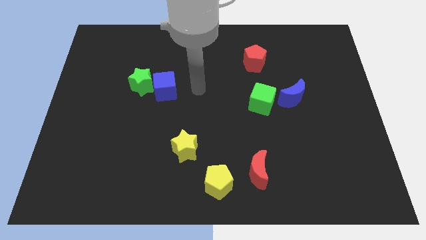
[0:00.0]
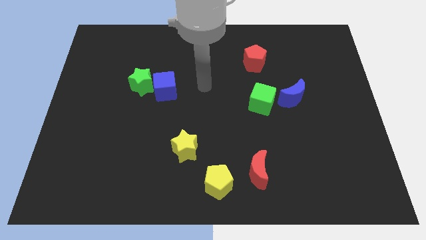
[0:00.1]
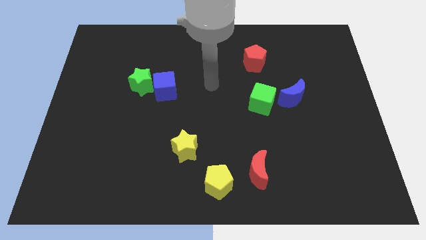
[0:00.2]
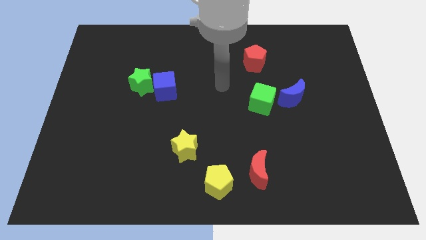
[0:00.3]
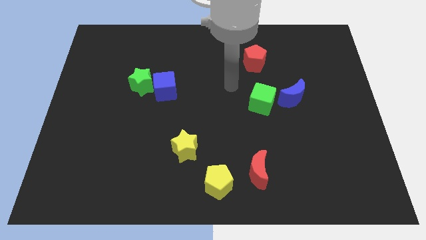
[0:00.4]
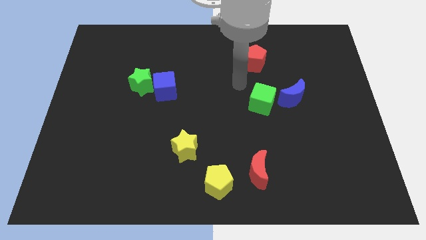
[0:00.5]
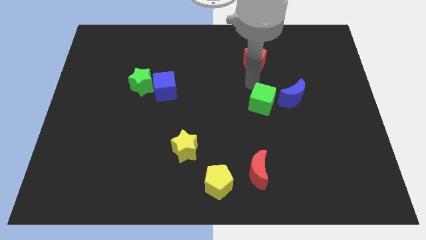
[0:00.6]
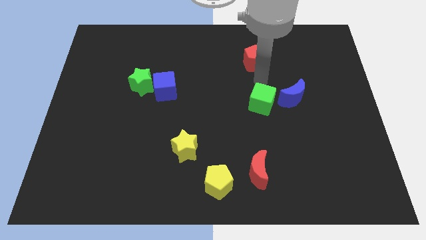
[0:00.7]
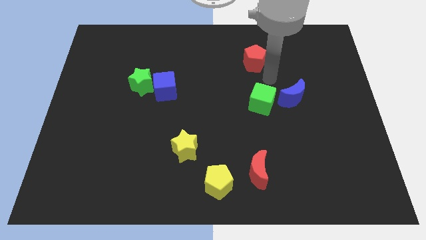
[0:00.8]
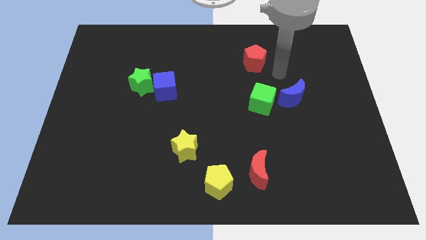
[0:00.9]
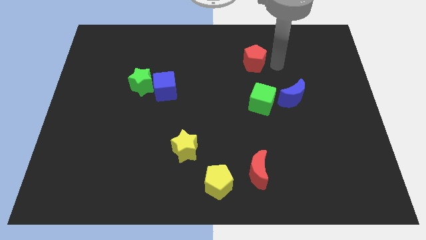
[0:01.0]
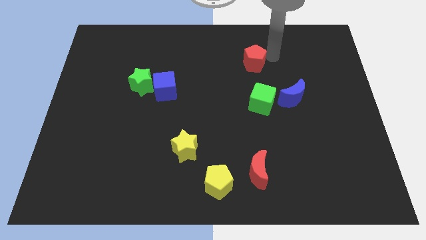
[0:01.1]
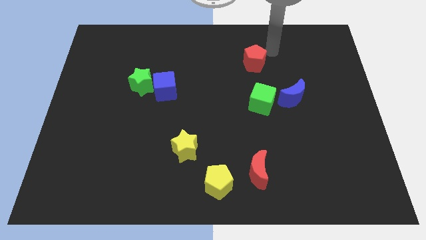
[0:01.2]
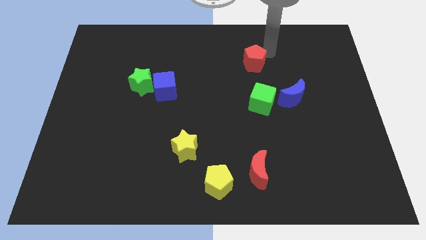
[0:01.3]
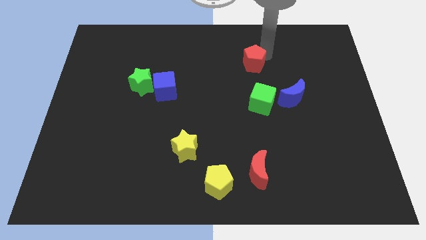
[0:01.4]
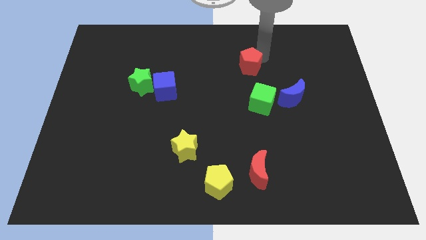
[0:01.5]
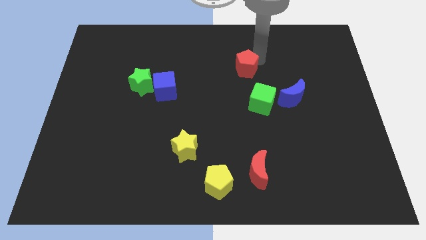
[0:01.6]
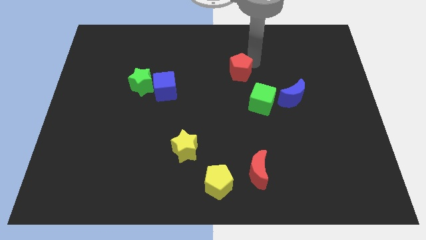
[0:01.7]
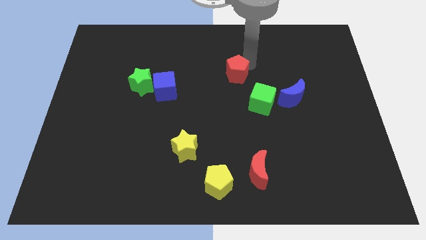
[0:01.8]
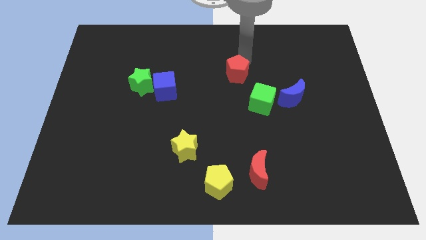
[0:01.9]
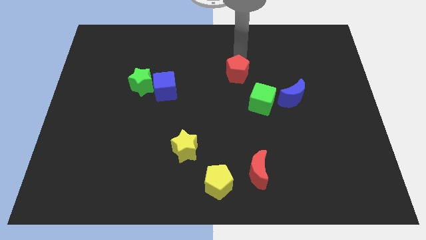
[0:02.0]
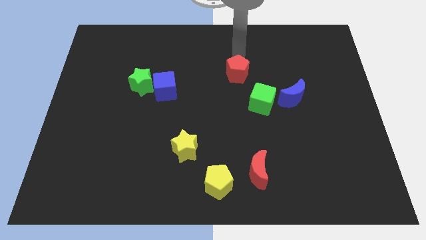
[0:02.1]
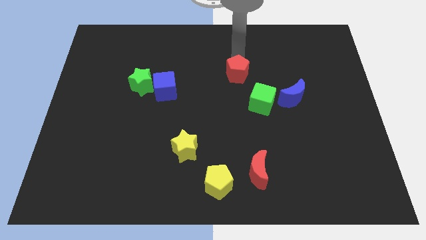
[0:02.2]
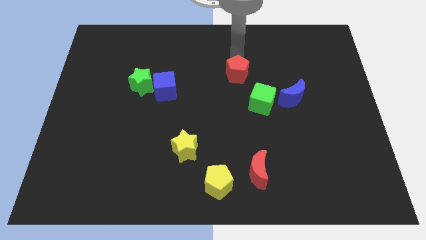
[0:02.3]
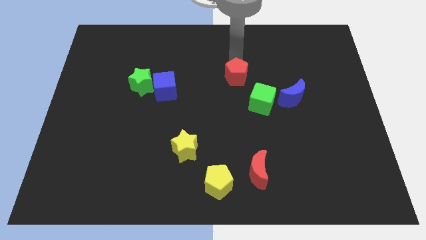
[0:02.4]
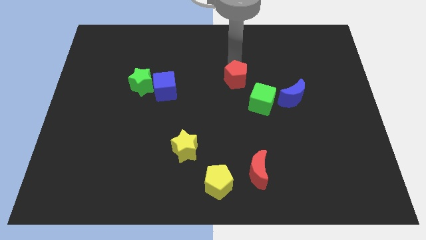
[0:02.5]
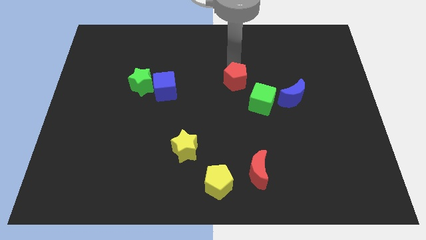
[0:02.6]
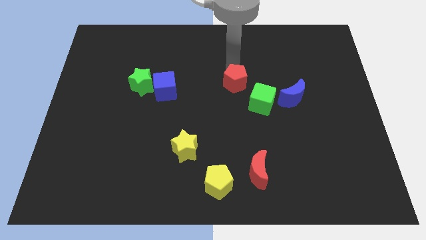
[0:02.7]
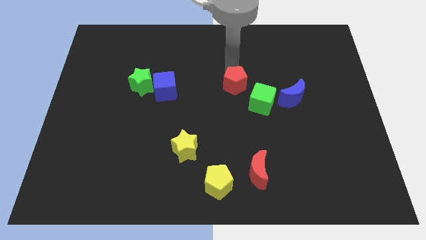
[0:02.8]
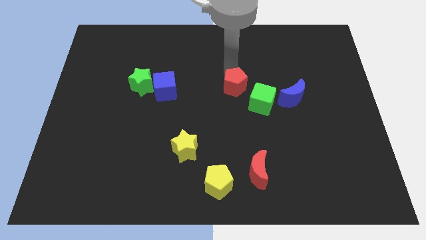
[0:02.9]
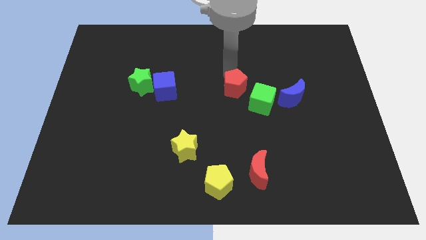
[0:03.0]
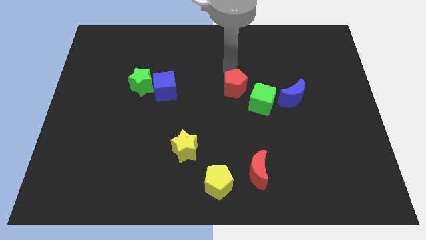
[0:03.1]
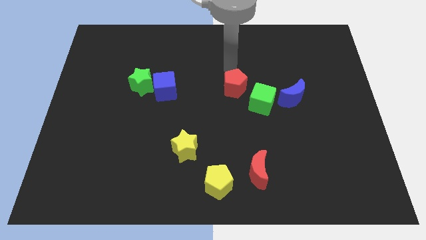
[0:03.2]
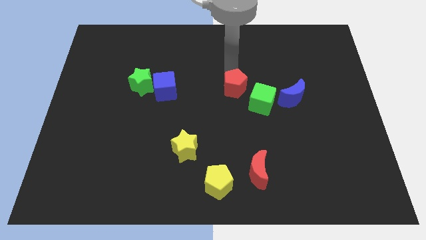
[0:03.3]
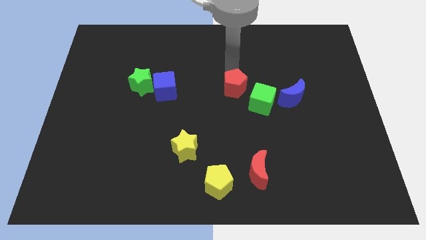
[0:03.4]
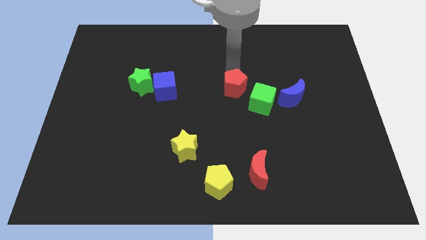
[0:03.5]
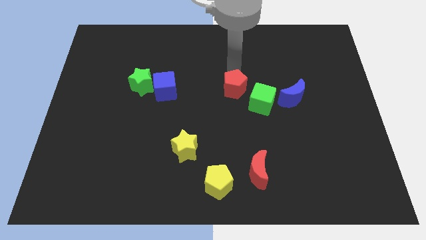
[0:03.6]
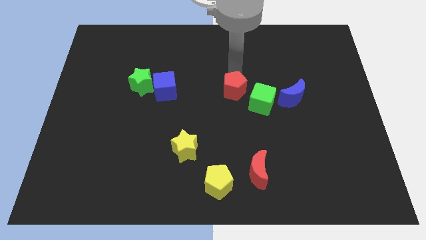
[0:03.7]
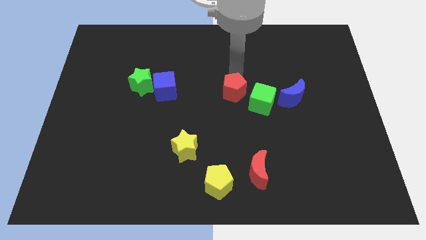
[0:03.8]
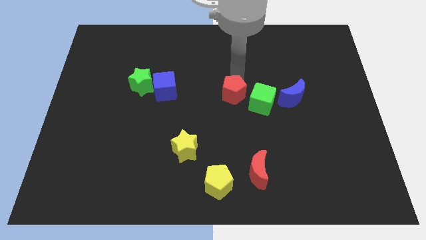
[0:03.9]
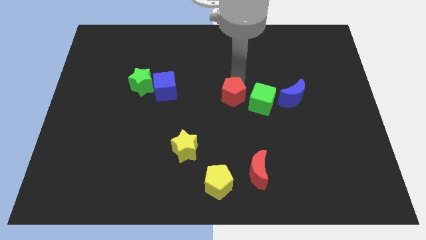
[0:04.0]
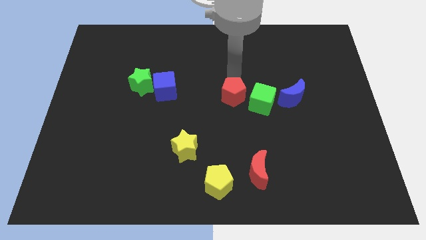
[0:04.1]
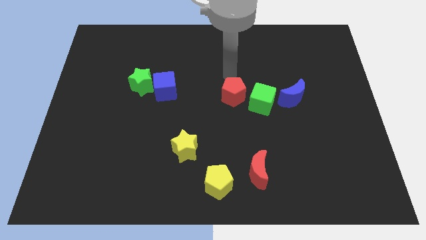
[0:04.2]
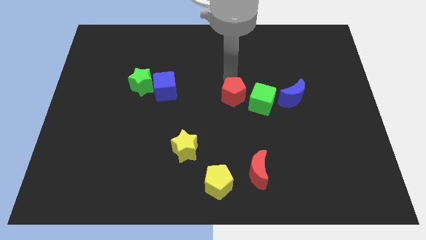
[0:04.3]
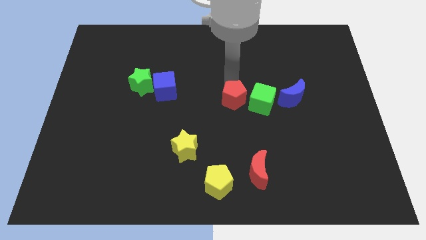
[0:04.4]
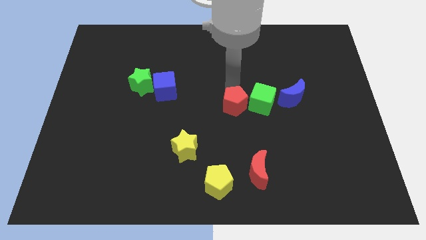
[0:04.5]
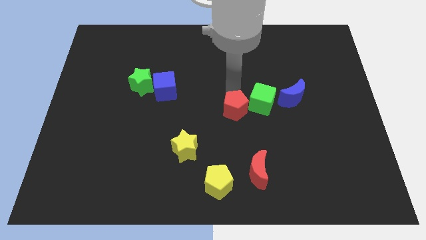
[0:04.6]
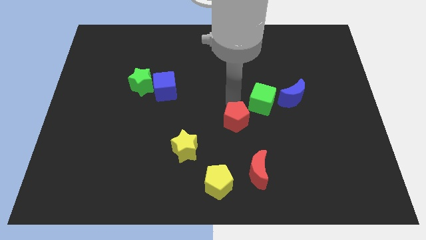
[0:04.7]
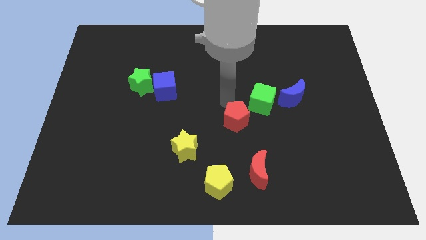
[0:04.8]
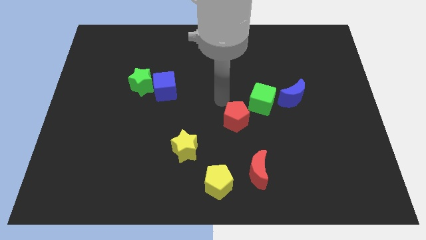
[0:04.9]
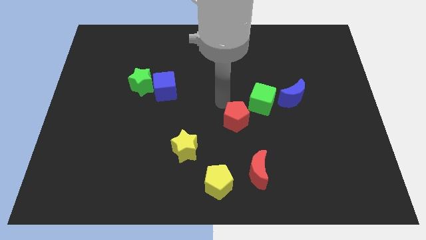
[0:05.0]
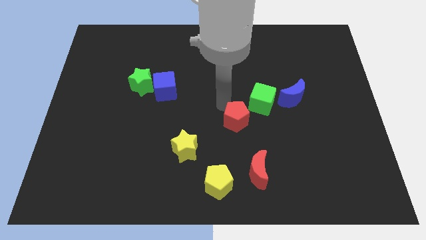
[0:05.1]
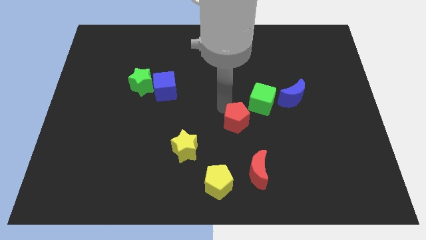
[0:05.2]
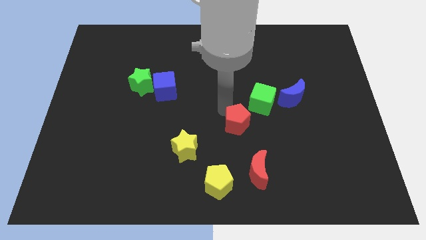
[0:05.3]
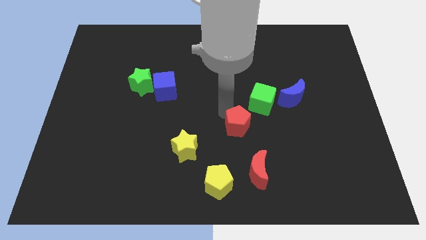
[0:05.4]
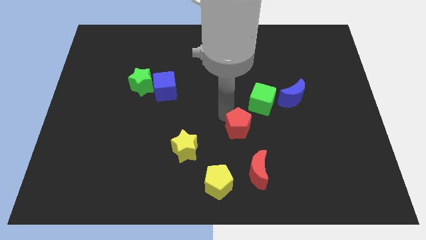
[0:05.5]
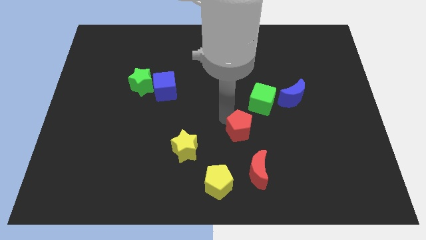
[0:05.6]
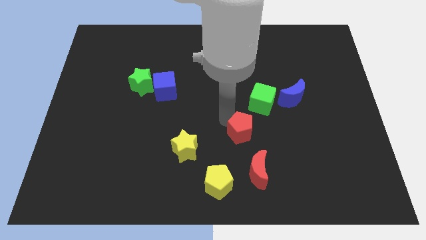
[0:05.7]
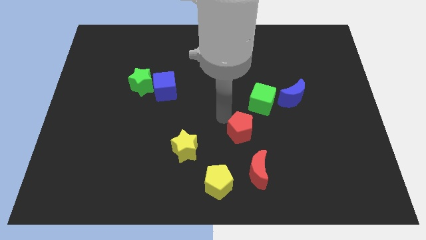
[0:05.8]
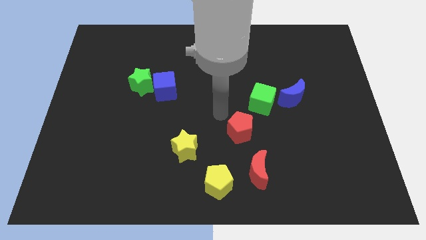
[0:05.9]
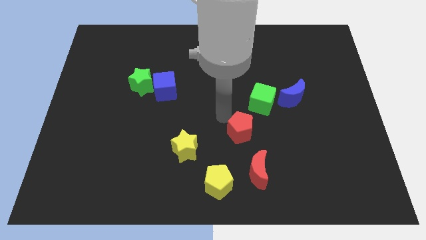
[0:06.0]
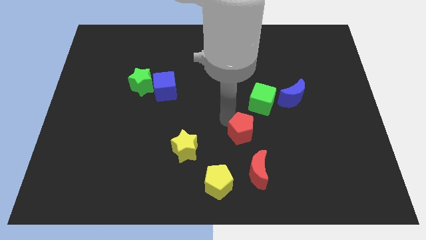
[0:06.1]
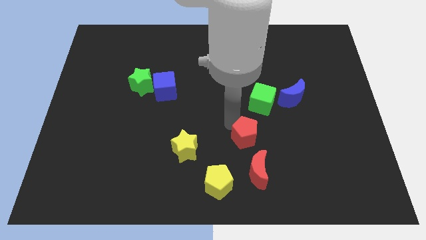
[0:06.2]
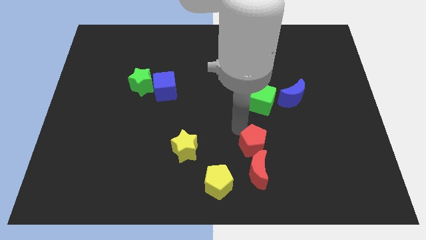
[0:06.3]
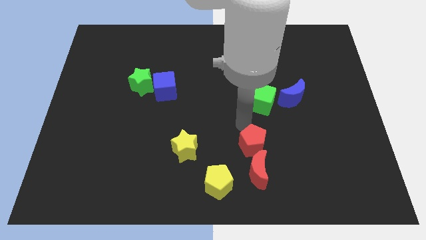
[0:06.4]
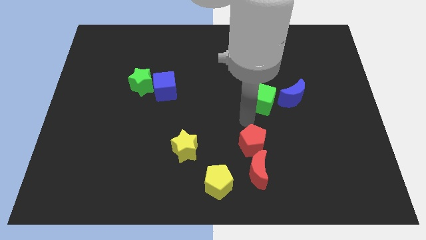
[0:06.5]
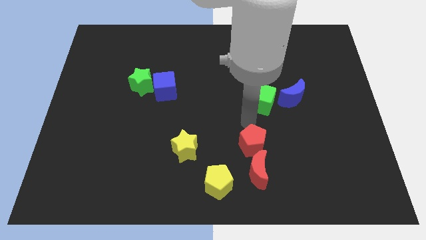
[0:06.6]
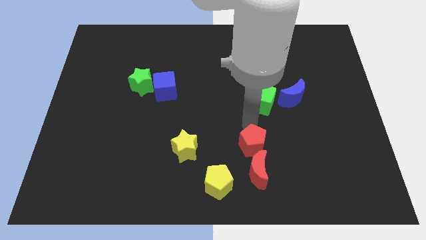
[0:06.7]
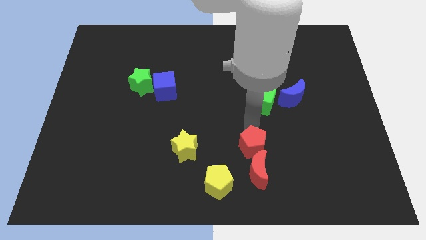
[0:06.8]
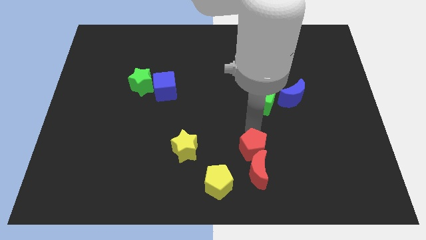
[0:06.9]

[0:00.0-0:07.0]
move the red pentagon to the red moon

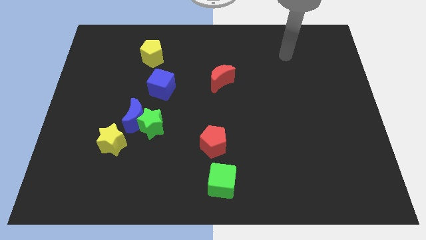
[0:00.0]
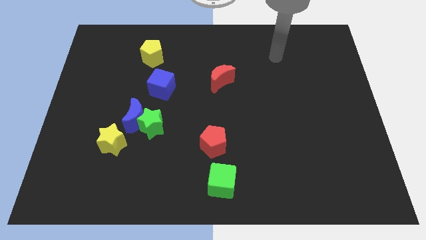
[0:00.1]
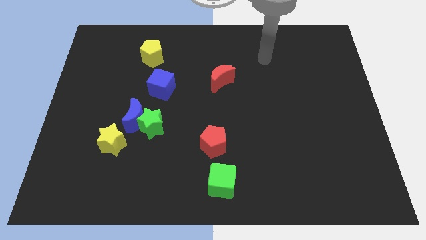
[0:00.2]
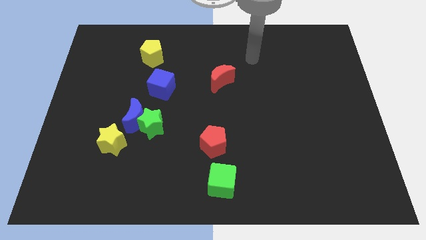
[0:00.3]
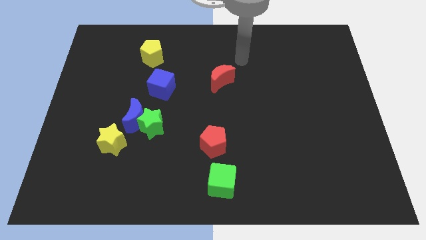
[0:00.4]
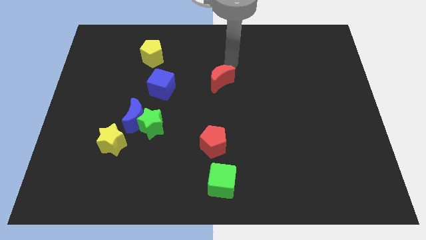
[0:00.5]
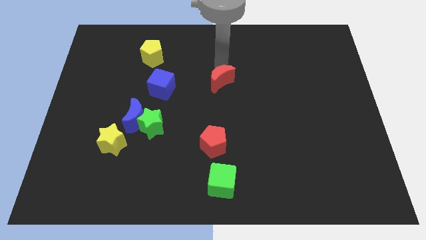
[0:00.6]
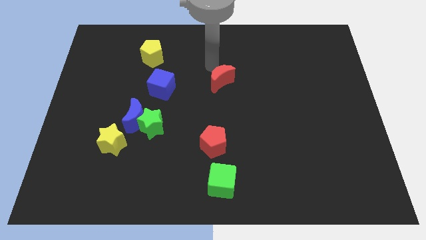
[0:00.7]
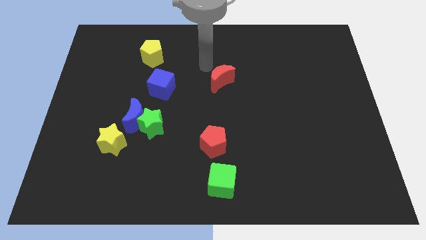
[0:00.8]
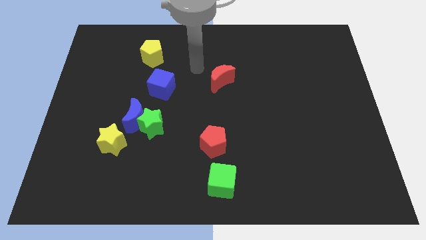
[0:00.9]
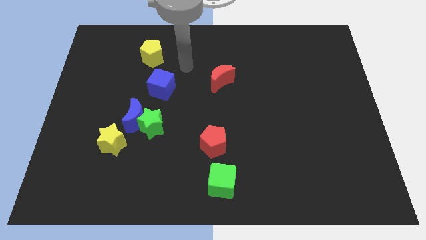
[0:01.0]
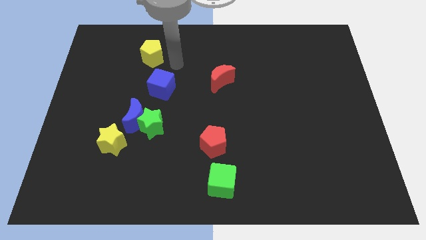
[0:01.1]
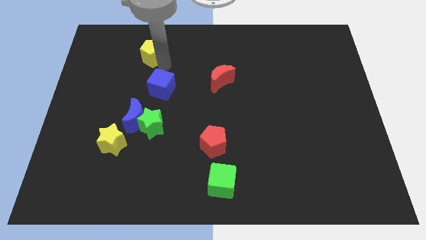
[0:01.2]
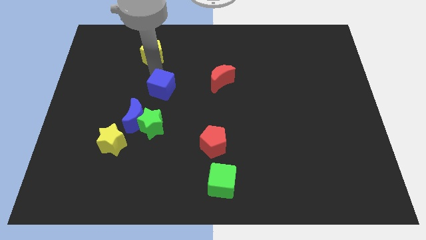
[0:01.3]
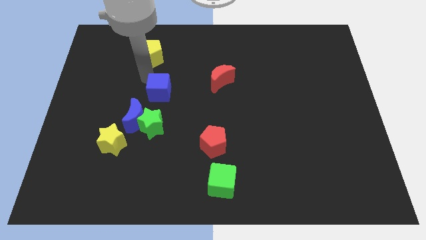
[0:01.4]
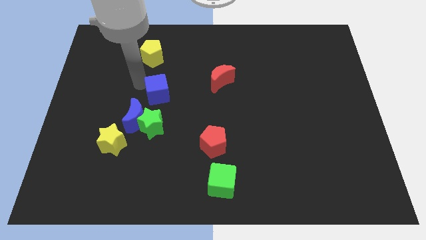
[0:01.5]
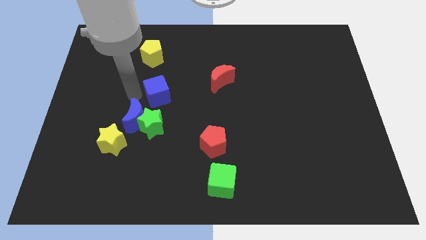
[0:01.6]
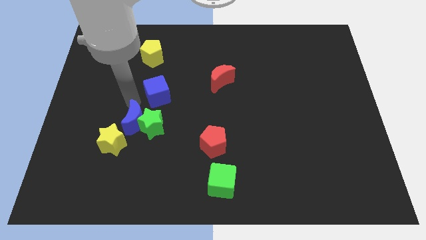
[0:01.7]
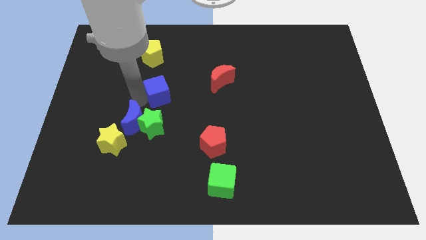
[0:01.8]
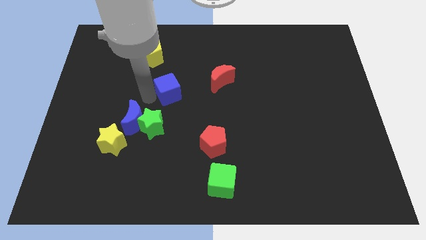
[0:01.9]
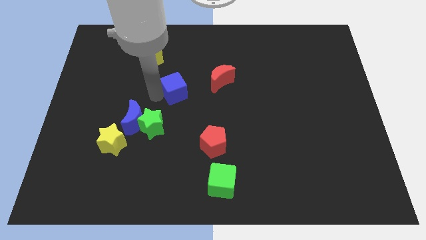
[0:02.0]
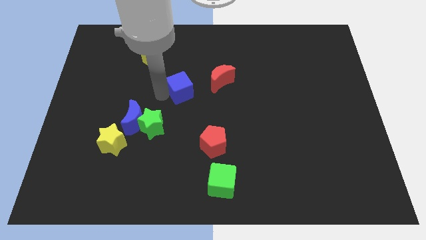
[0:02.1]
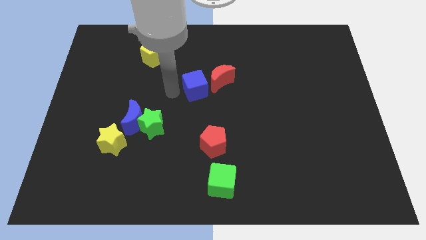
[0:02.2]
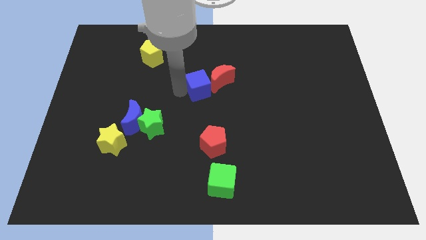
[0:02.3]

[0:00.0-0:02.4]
slide the blue cube next to the red moon
